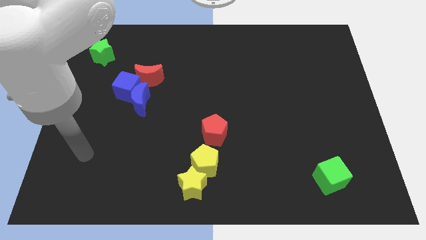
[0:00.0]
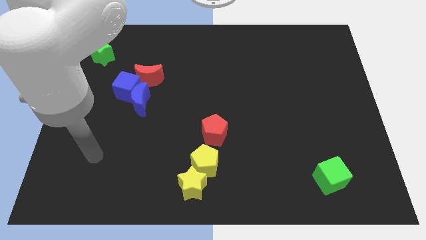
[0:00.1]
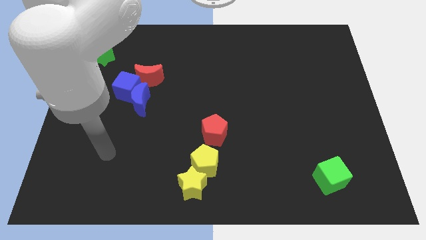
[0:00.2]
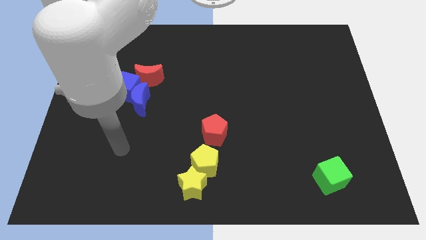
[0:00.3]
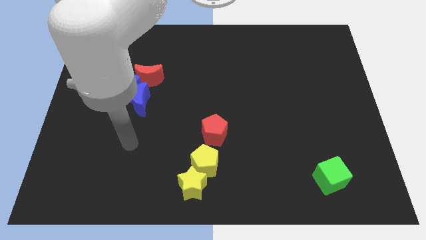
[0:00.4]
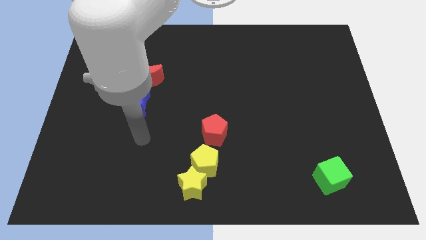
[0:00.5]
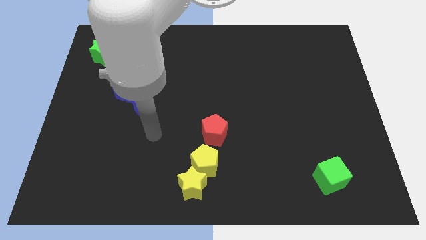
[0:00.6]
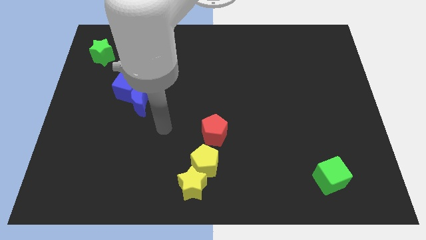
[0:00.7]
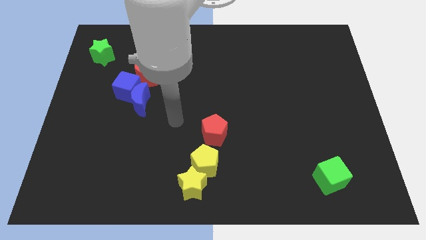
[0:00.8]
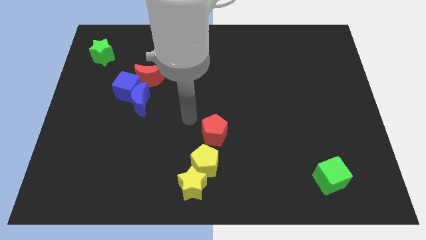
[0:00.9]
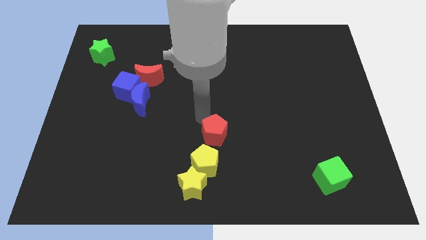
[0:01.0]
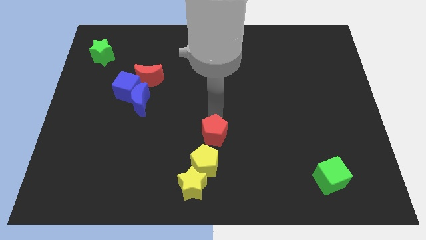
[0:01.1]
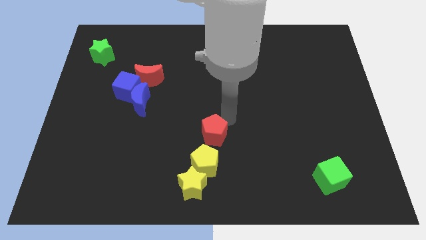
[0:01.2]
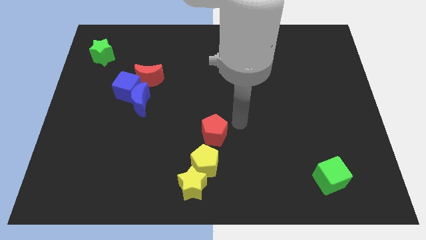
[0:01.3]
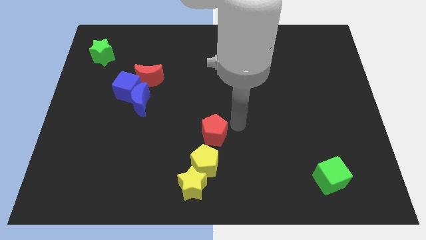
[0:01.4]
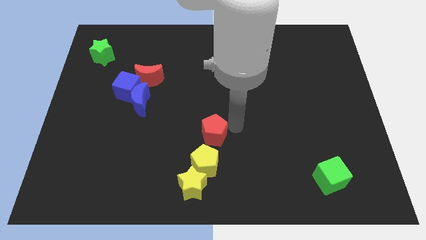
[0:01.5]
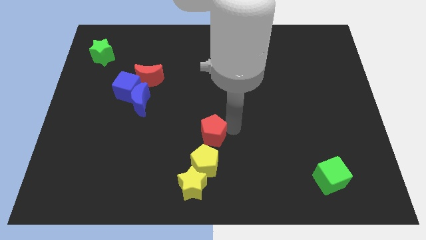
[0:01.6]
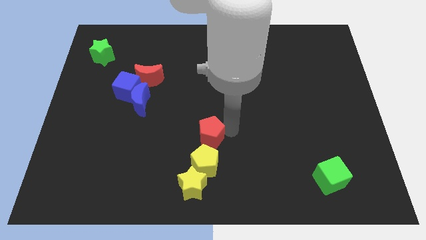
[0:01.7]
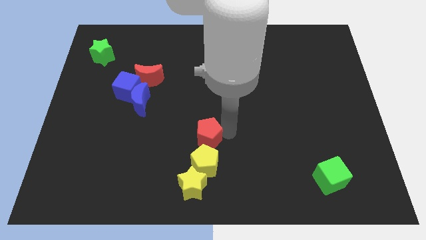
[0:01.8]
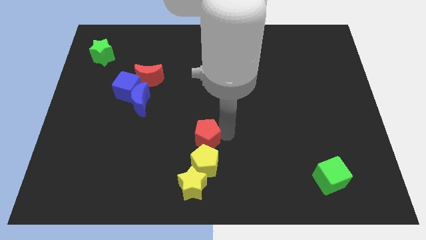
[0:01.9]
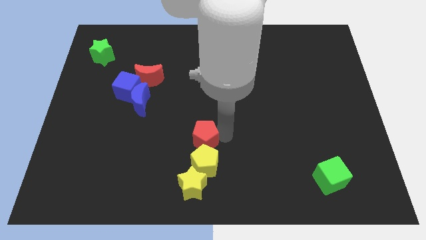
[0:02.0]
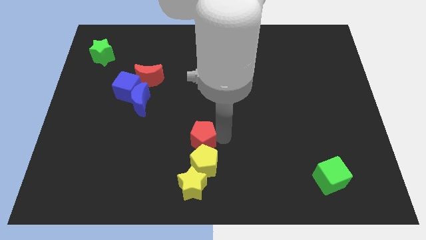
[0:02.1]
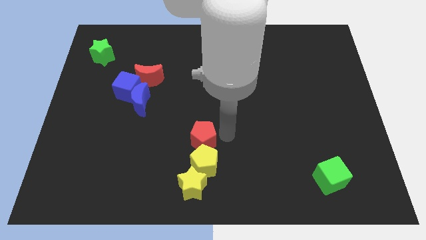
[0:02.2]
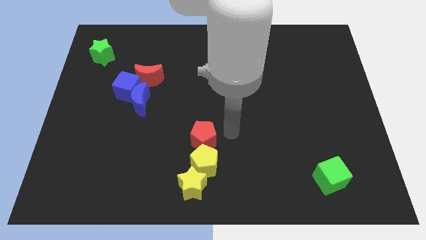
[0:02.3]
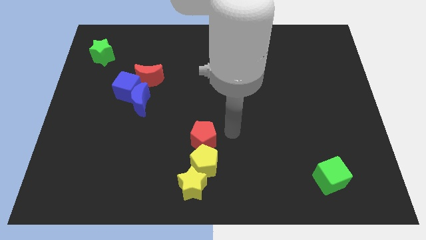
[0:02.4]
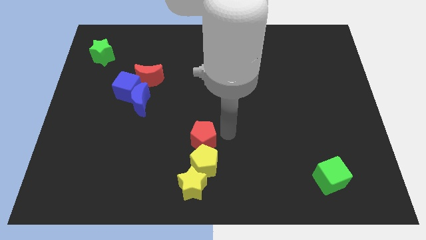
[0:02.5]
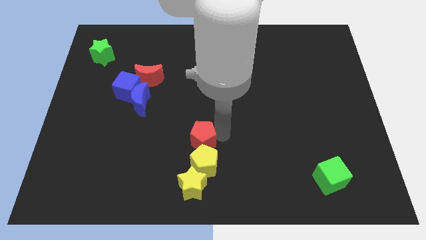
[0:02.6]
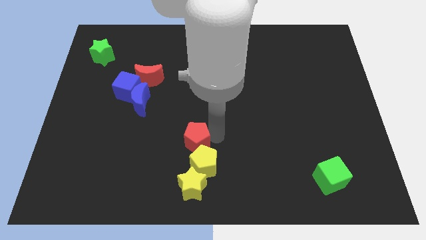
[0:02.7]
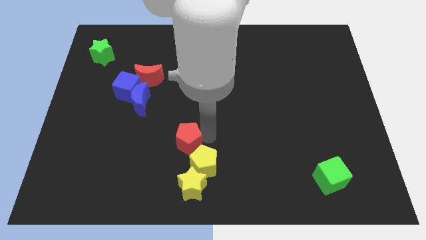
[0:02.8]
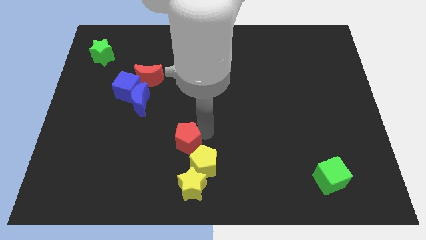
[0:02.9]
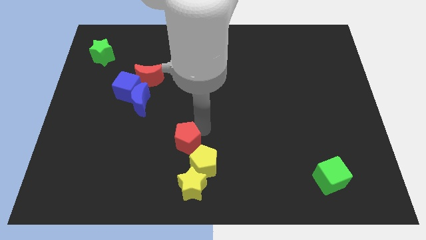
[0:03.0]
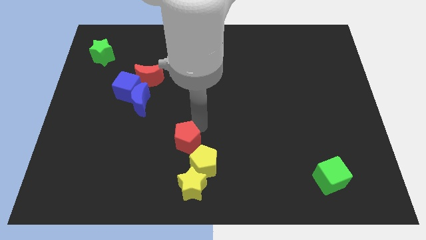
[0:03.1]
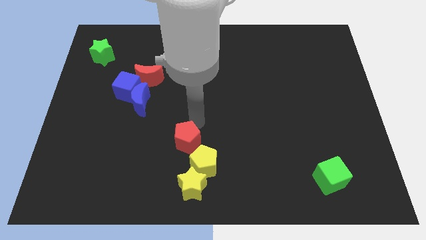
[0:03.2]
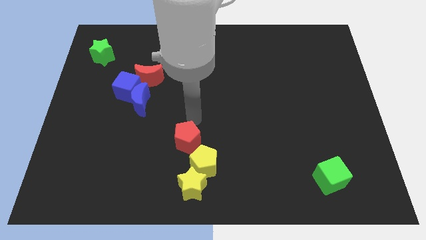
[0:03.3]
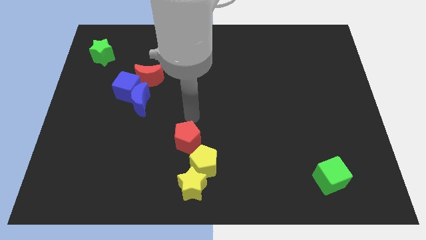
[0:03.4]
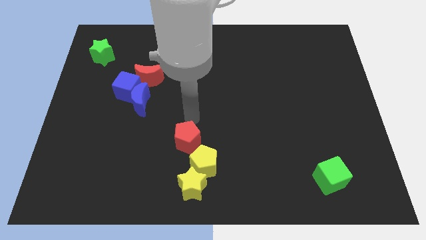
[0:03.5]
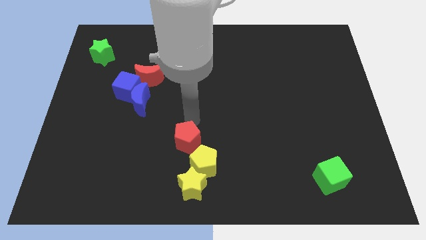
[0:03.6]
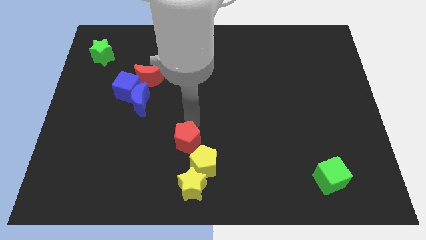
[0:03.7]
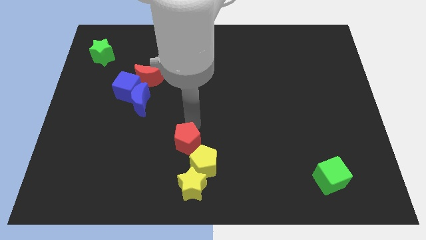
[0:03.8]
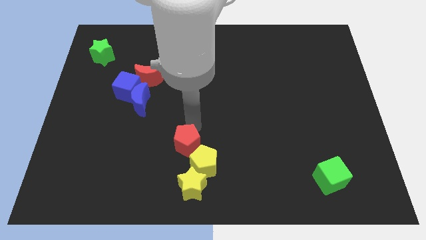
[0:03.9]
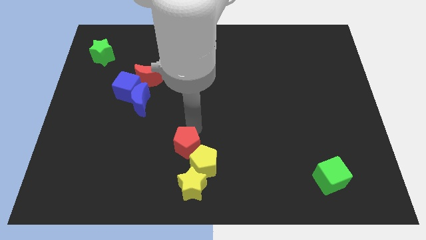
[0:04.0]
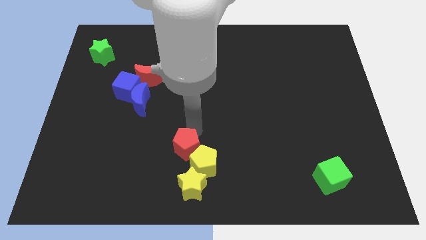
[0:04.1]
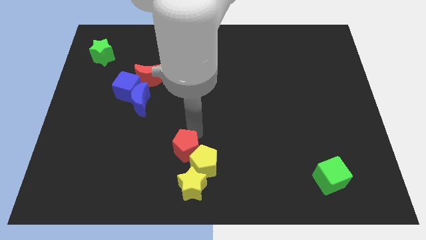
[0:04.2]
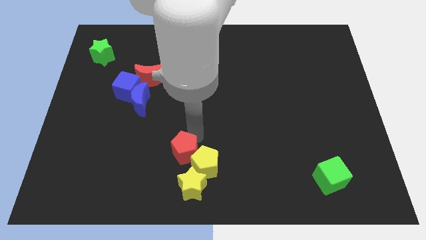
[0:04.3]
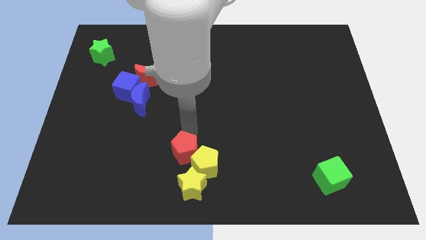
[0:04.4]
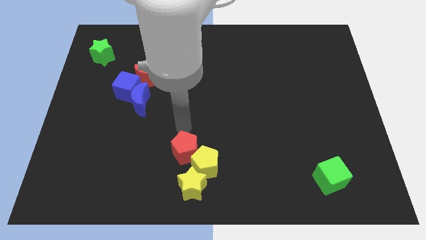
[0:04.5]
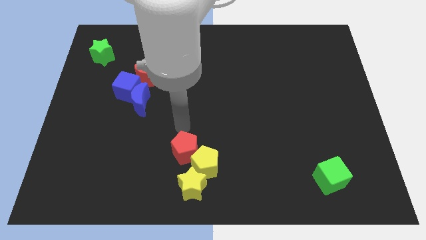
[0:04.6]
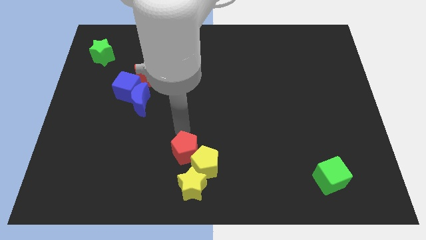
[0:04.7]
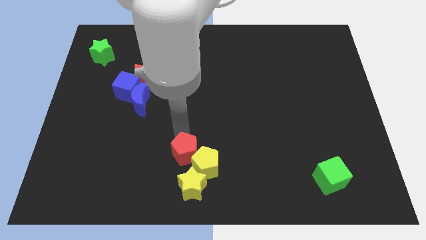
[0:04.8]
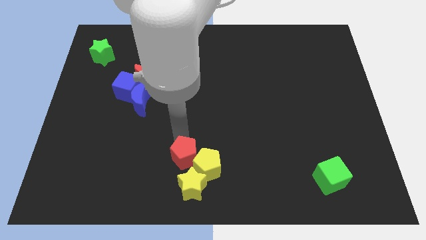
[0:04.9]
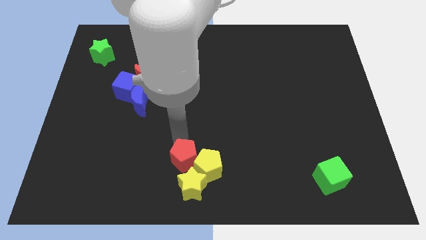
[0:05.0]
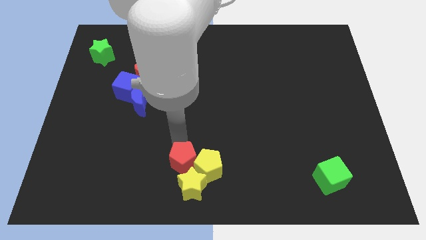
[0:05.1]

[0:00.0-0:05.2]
move the red pentagon towards the yellow star

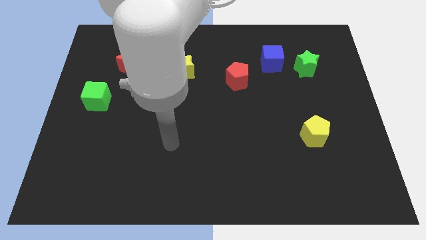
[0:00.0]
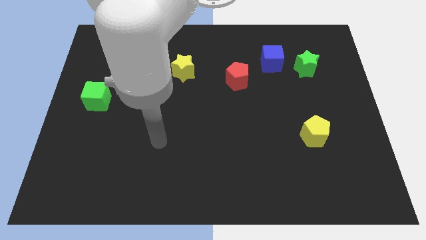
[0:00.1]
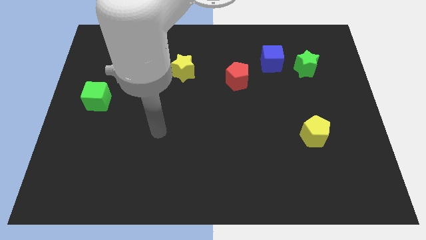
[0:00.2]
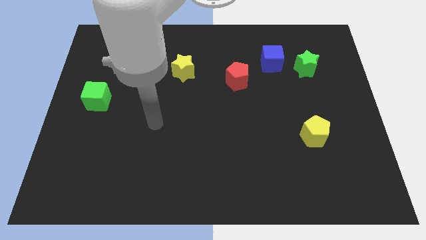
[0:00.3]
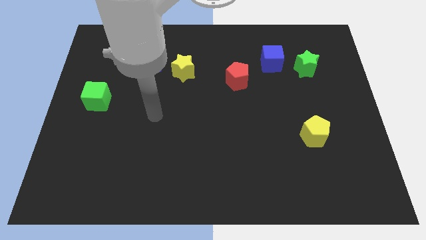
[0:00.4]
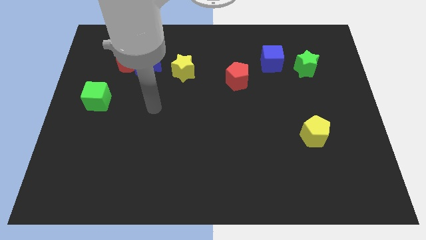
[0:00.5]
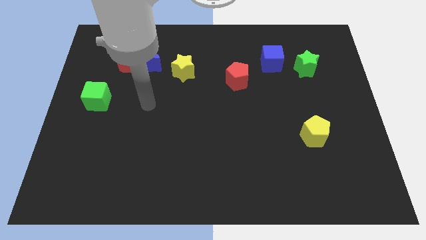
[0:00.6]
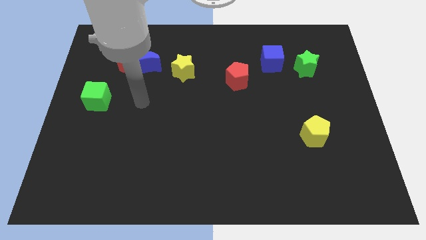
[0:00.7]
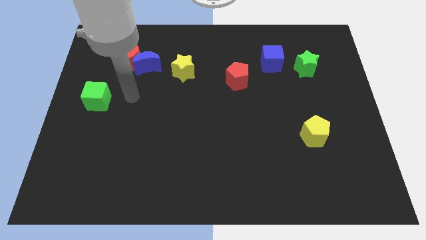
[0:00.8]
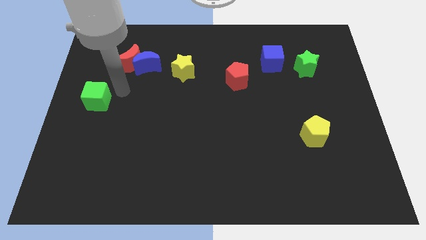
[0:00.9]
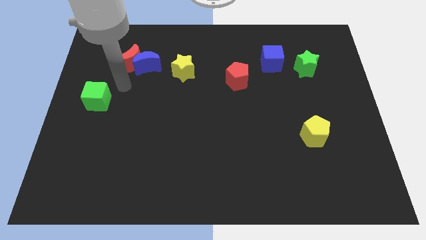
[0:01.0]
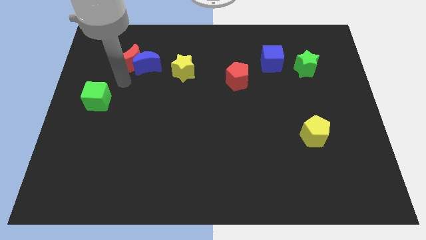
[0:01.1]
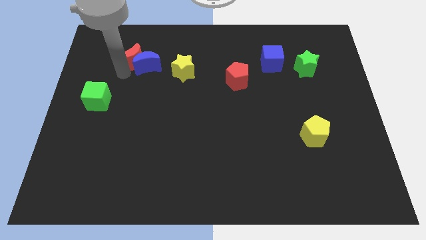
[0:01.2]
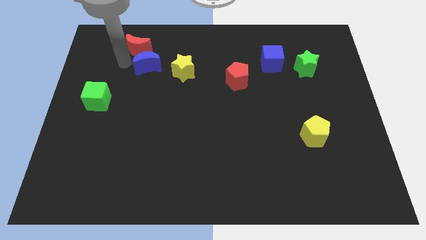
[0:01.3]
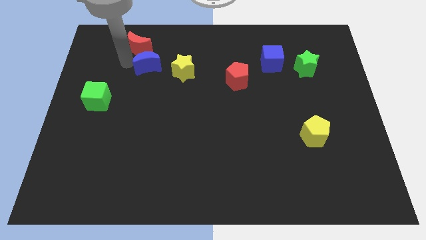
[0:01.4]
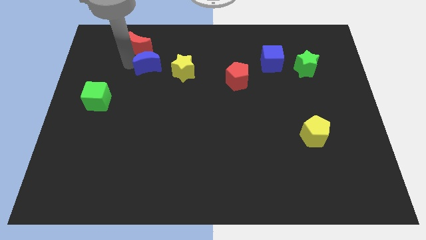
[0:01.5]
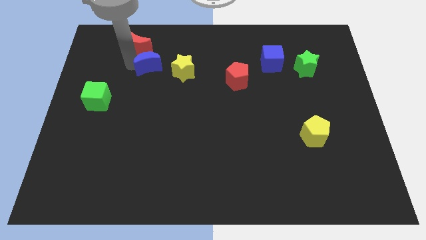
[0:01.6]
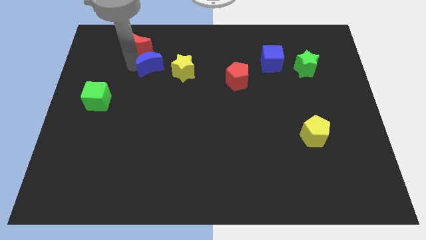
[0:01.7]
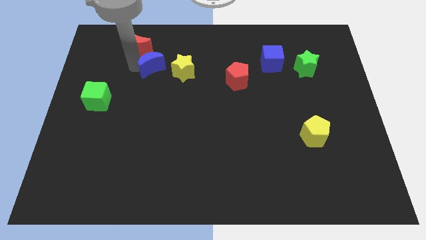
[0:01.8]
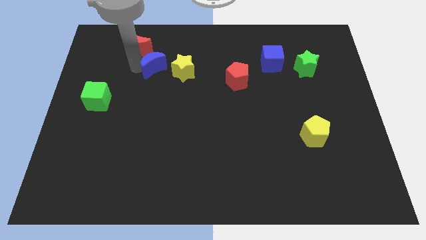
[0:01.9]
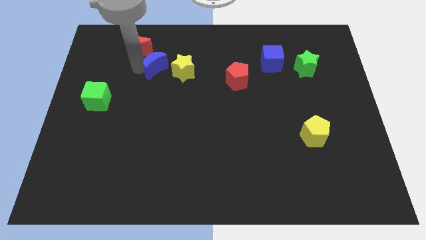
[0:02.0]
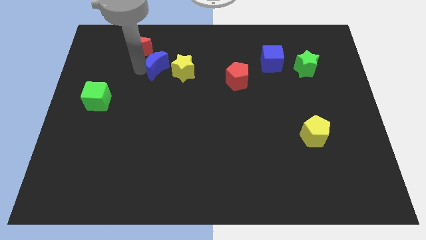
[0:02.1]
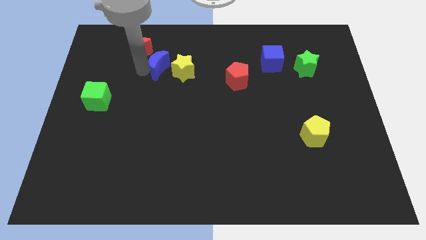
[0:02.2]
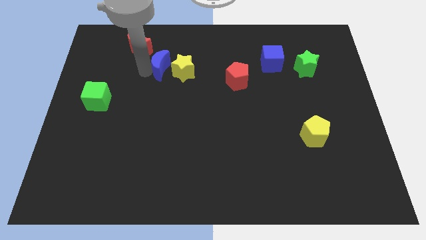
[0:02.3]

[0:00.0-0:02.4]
move the blue moon towards the yellow star

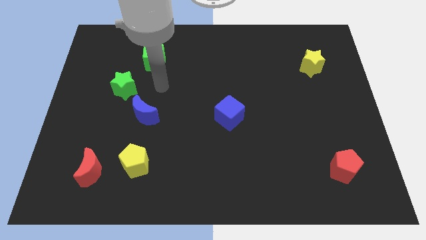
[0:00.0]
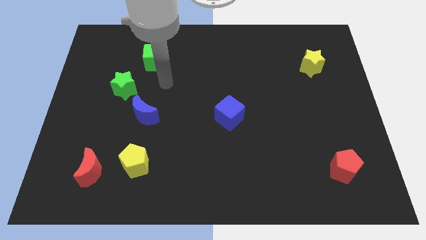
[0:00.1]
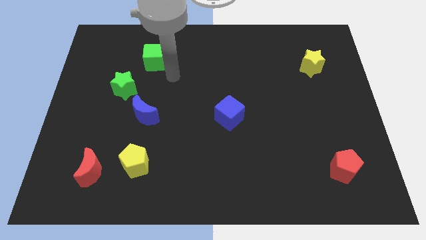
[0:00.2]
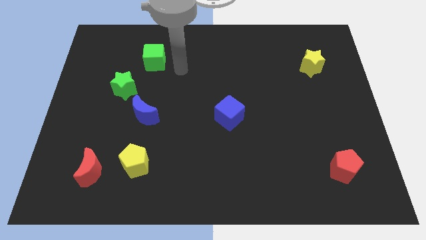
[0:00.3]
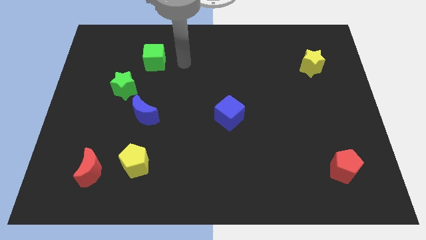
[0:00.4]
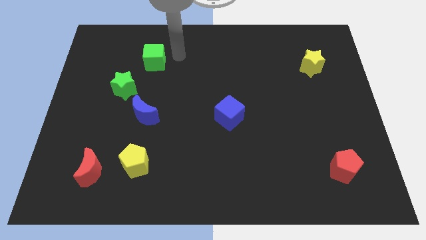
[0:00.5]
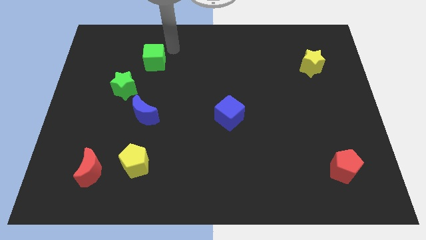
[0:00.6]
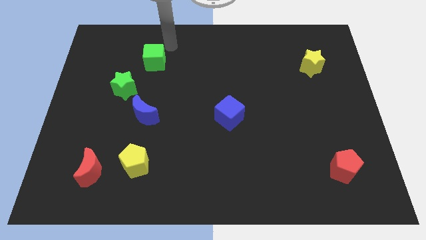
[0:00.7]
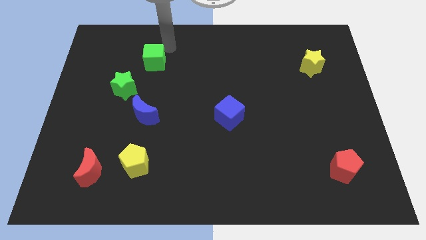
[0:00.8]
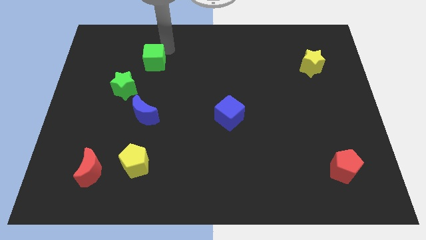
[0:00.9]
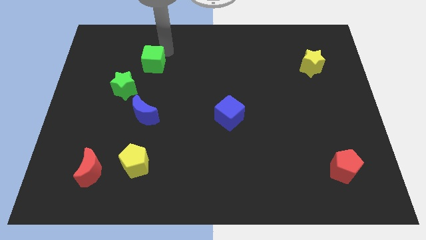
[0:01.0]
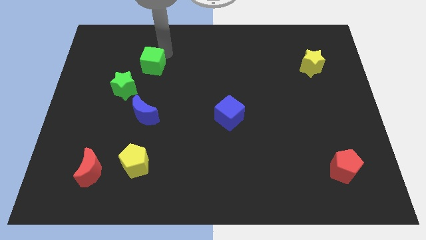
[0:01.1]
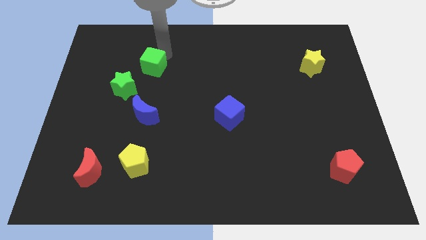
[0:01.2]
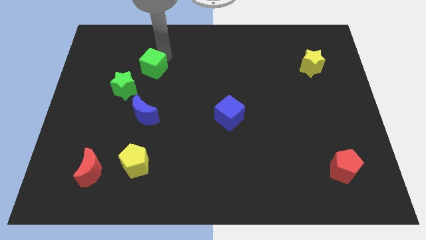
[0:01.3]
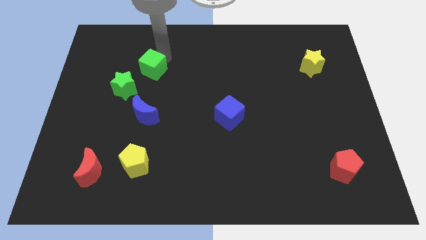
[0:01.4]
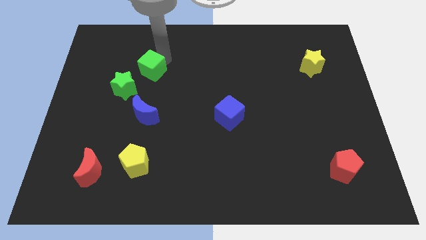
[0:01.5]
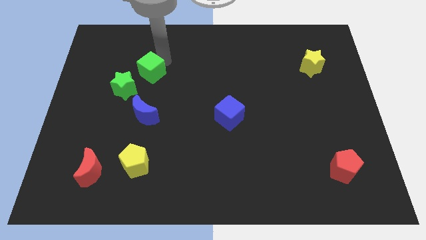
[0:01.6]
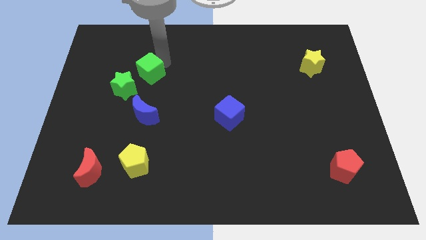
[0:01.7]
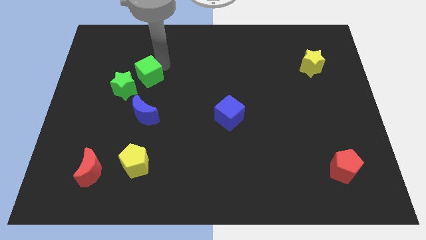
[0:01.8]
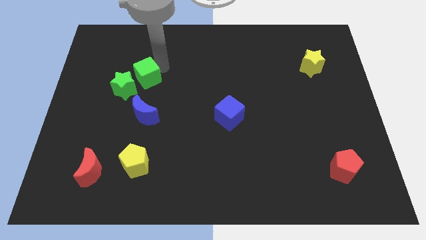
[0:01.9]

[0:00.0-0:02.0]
put the green cube next to the green star
